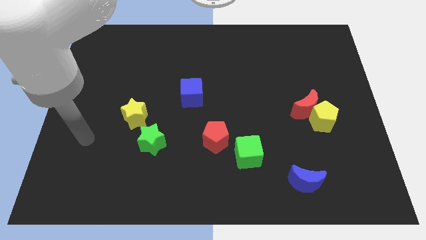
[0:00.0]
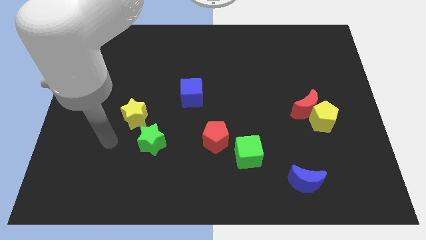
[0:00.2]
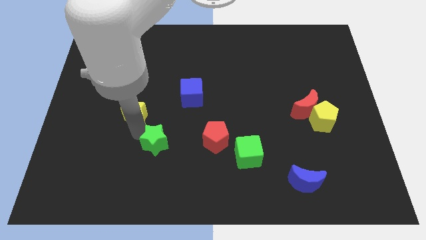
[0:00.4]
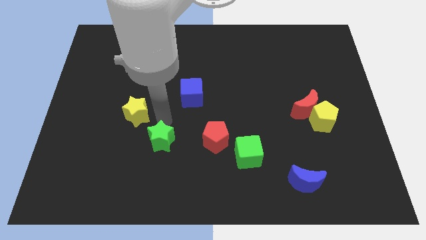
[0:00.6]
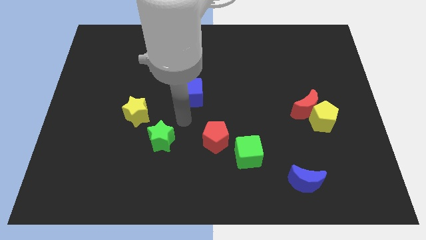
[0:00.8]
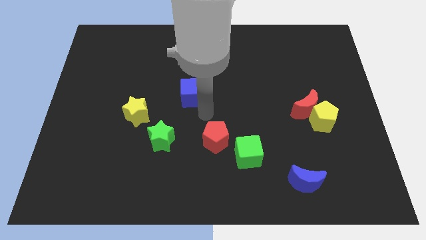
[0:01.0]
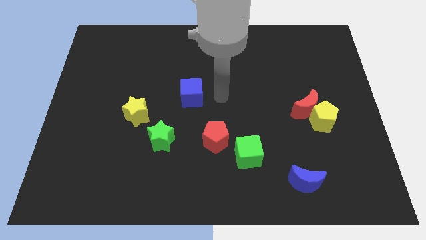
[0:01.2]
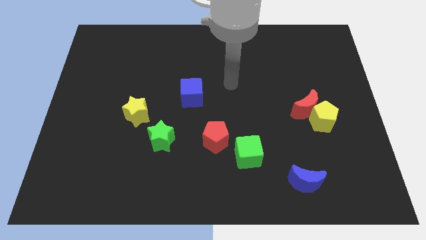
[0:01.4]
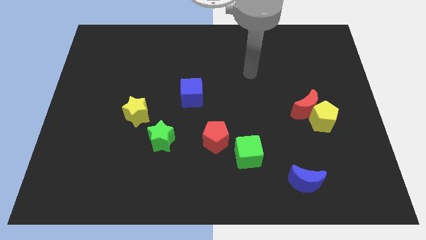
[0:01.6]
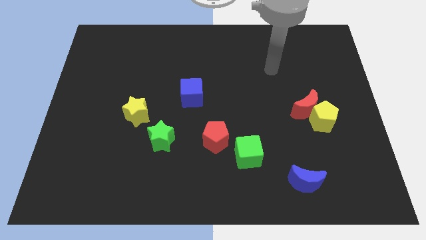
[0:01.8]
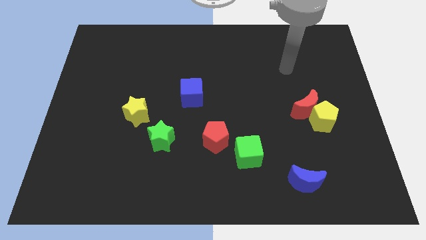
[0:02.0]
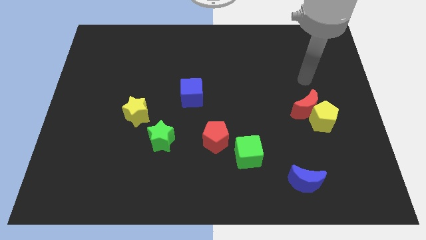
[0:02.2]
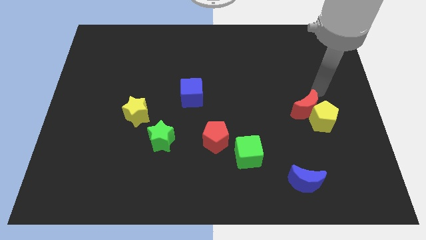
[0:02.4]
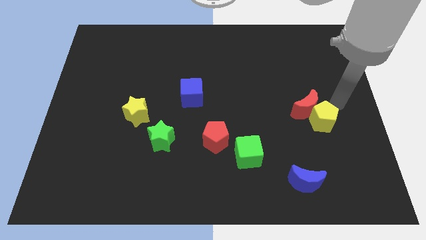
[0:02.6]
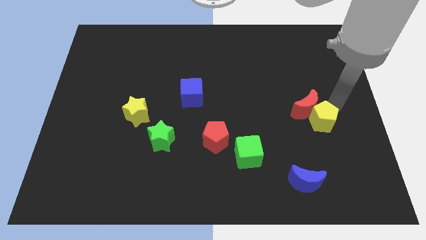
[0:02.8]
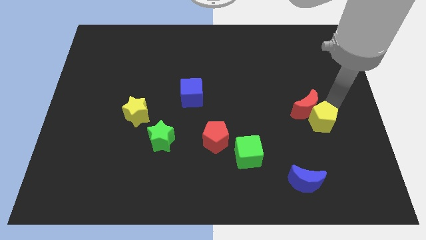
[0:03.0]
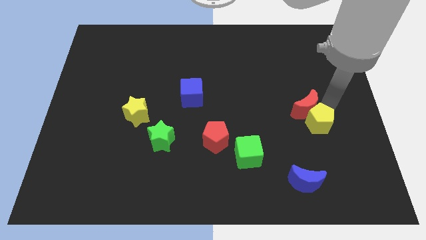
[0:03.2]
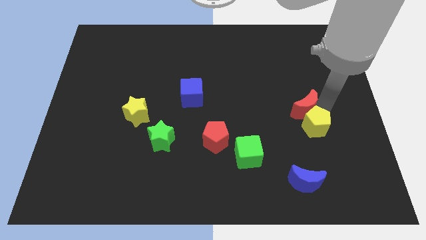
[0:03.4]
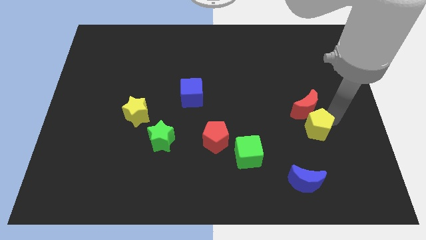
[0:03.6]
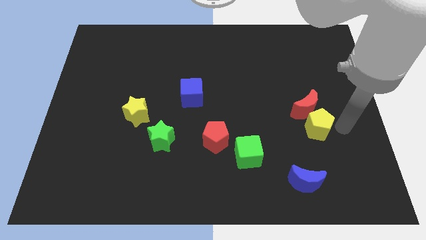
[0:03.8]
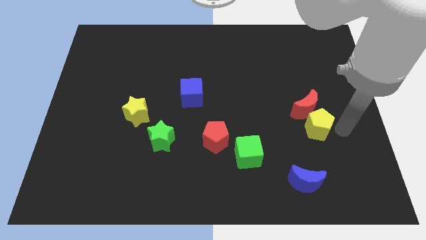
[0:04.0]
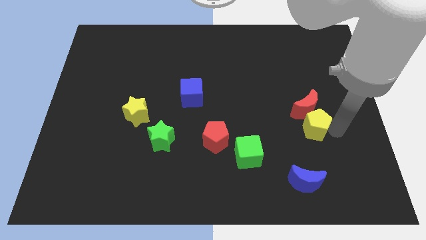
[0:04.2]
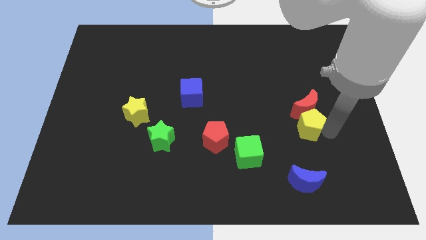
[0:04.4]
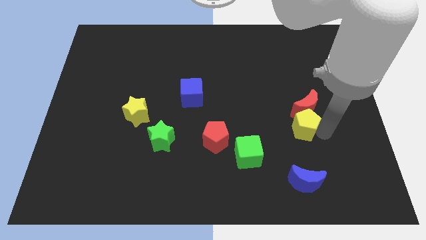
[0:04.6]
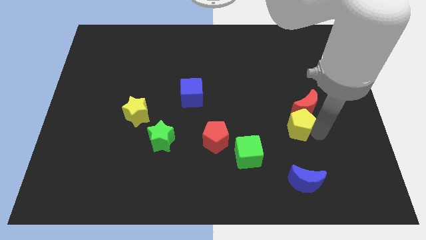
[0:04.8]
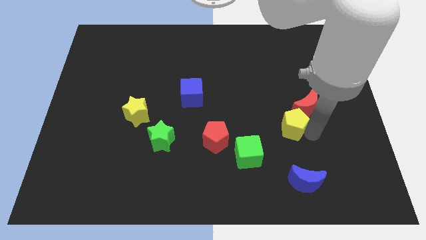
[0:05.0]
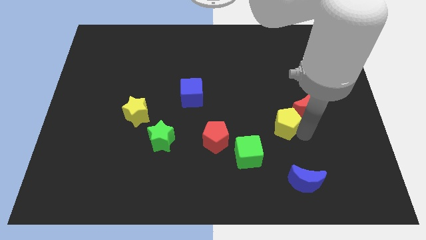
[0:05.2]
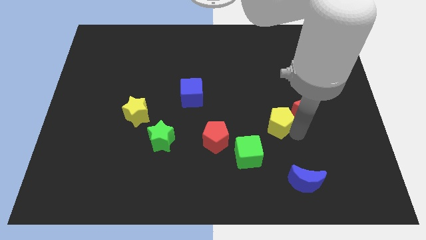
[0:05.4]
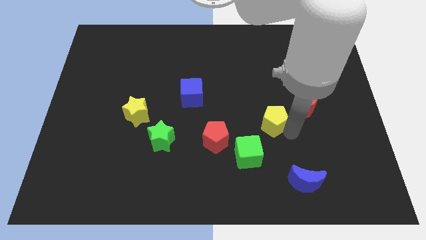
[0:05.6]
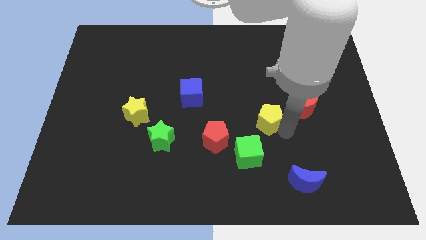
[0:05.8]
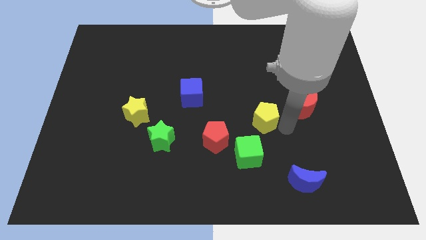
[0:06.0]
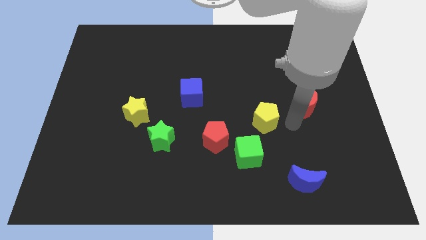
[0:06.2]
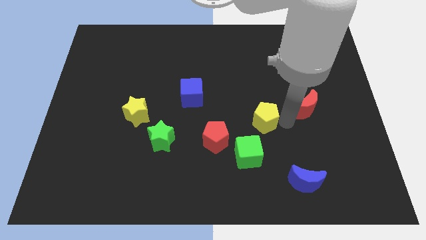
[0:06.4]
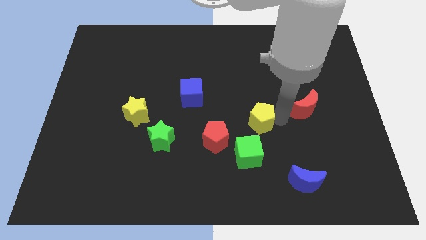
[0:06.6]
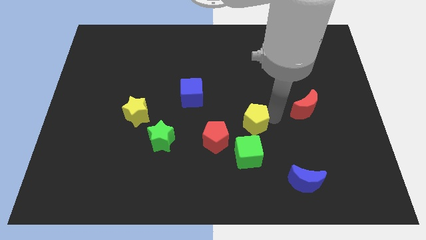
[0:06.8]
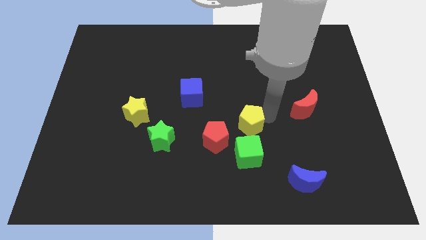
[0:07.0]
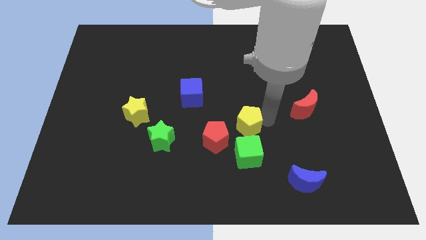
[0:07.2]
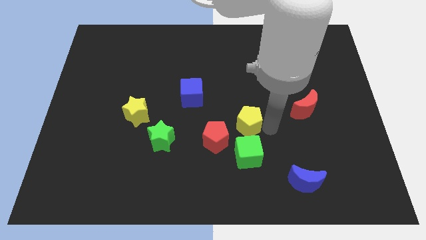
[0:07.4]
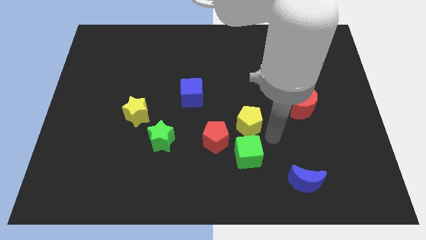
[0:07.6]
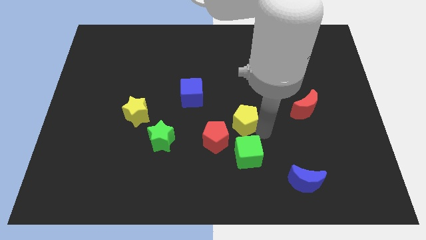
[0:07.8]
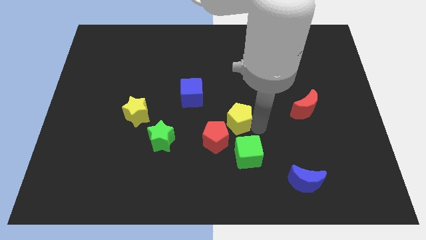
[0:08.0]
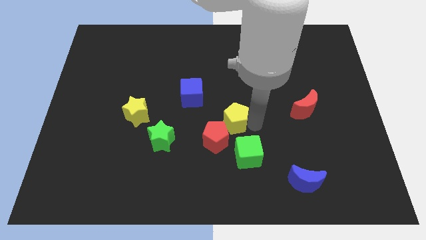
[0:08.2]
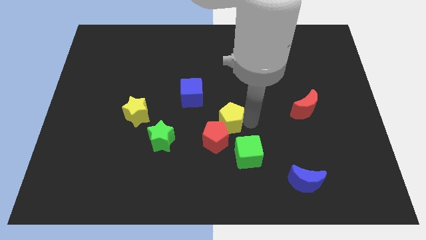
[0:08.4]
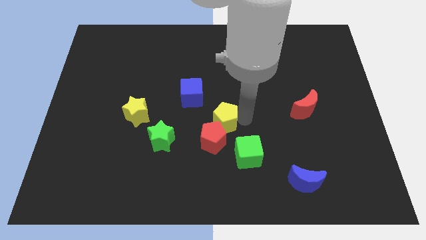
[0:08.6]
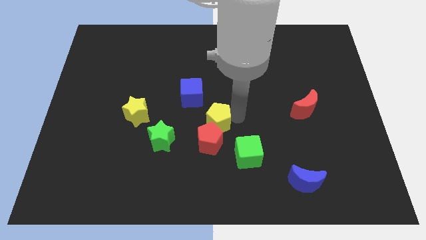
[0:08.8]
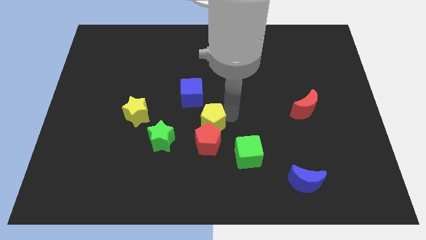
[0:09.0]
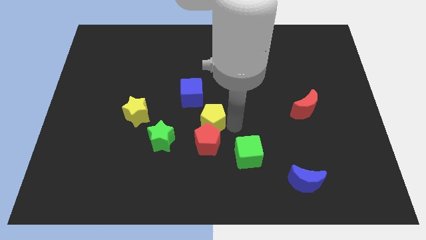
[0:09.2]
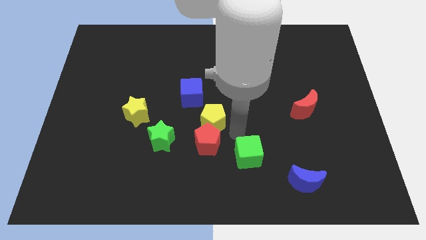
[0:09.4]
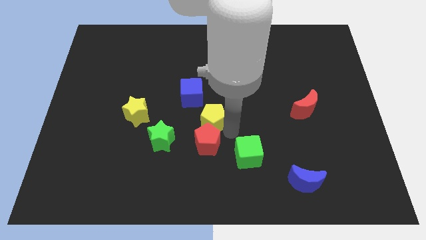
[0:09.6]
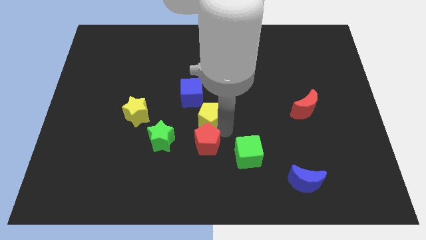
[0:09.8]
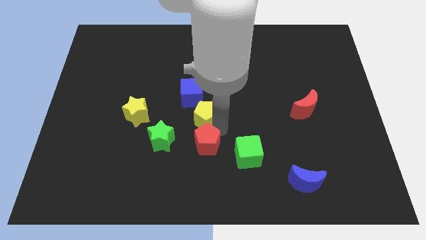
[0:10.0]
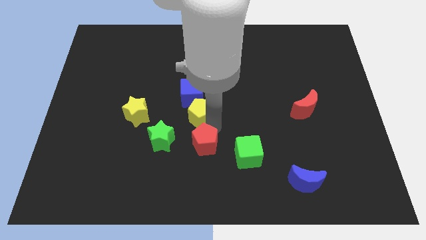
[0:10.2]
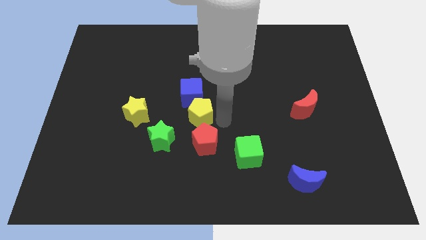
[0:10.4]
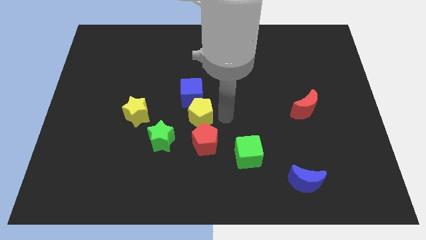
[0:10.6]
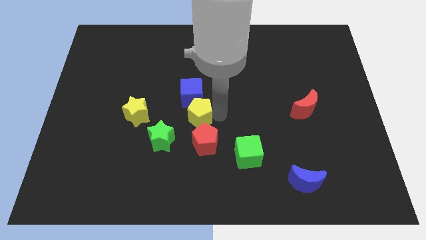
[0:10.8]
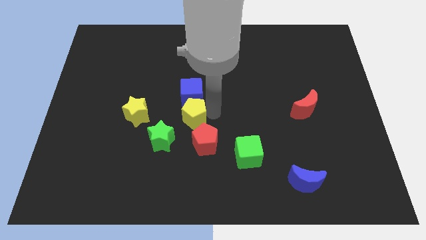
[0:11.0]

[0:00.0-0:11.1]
move the yellow pentagon to the bottom left of the blue cube

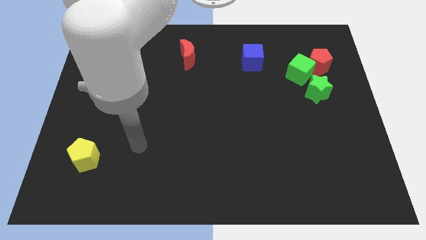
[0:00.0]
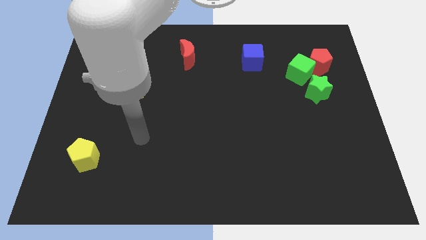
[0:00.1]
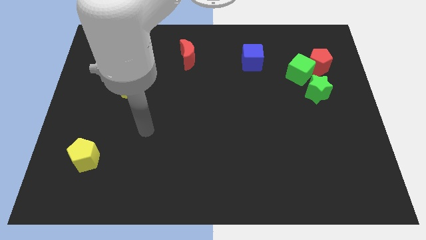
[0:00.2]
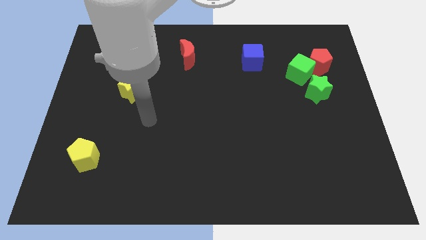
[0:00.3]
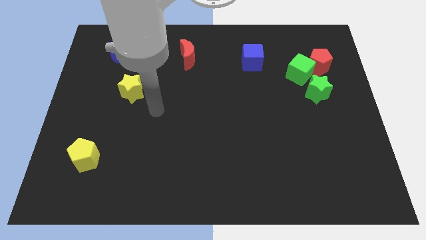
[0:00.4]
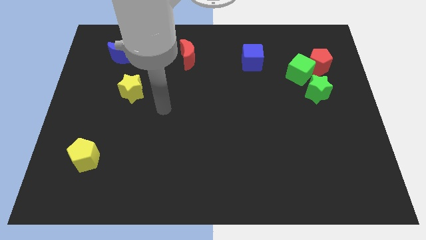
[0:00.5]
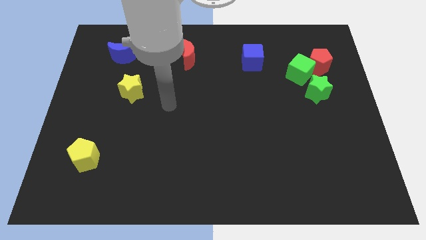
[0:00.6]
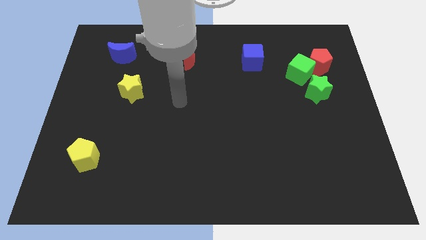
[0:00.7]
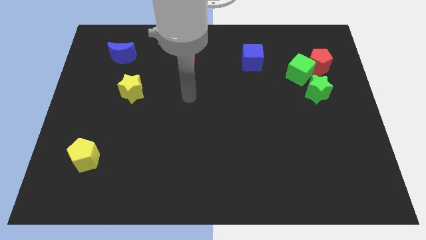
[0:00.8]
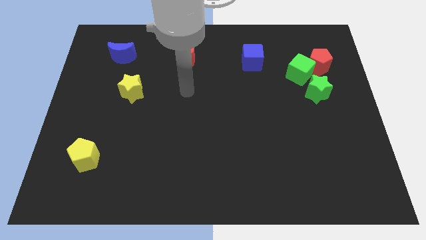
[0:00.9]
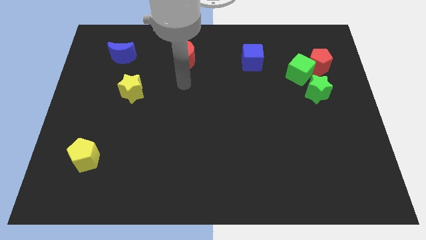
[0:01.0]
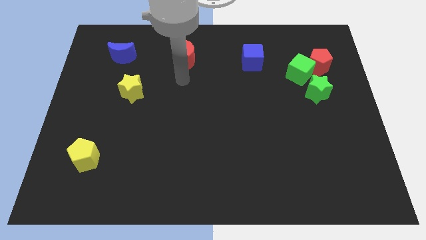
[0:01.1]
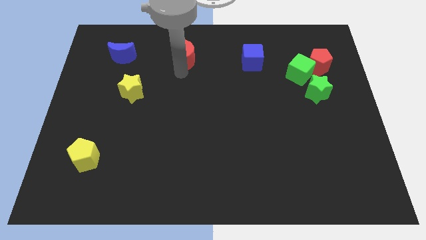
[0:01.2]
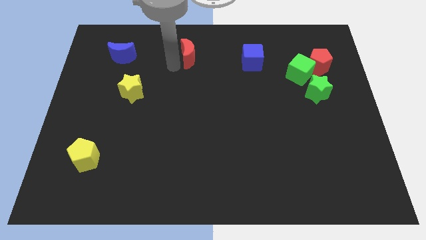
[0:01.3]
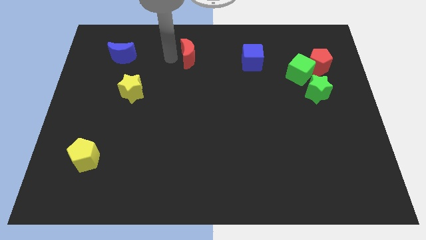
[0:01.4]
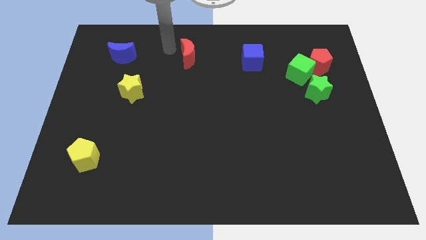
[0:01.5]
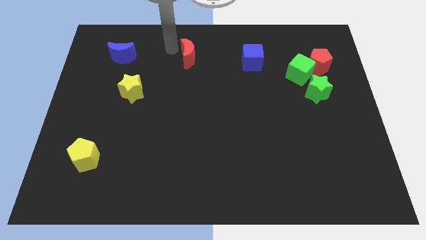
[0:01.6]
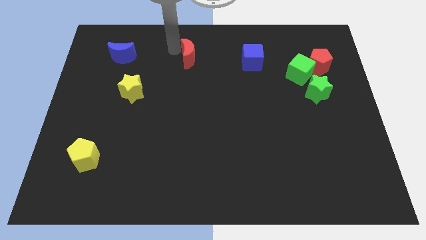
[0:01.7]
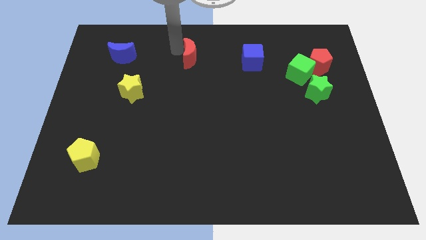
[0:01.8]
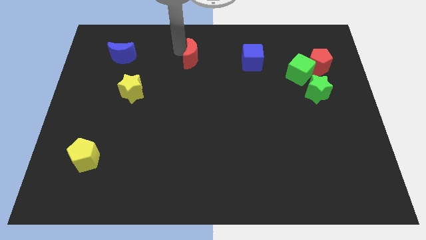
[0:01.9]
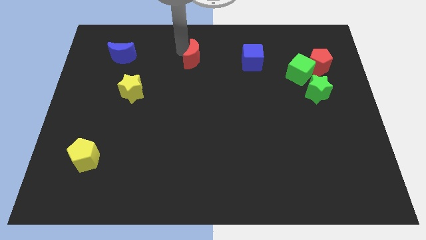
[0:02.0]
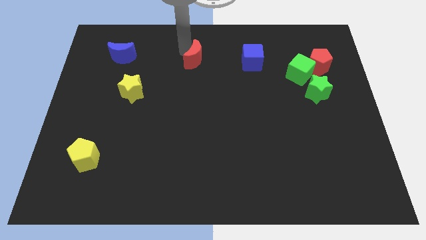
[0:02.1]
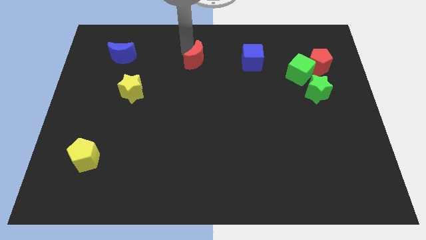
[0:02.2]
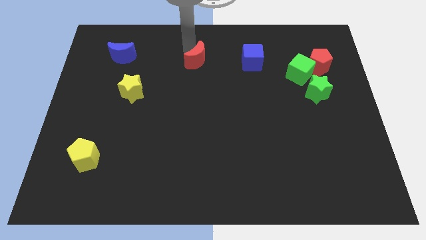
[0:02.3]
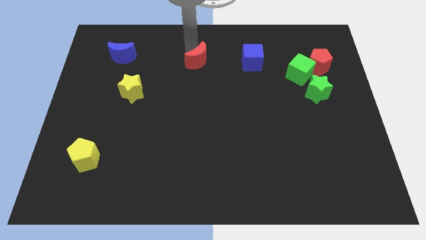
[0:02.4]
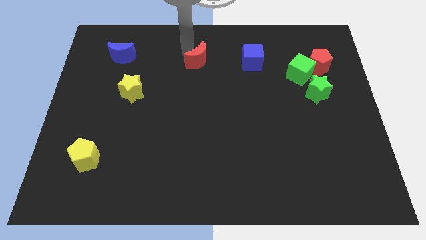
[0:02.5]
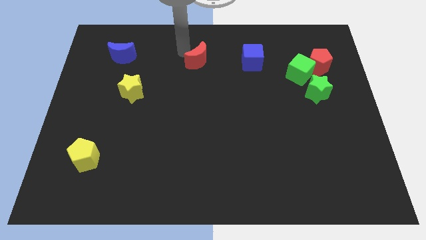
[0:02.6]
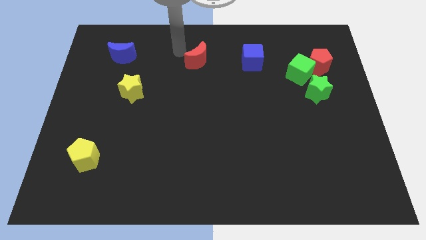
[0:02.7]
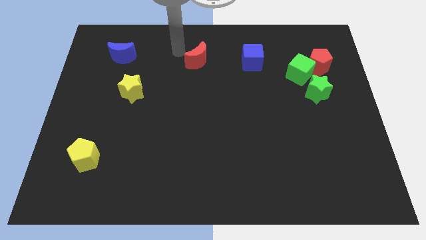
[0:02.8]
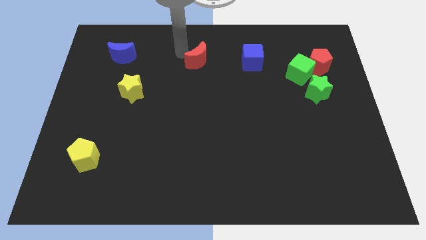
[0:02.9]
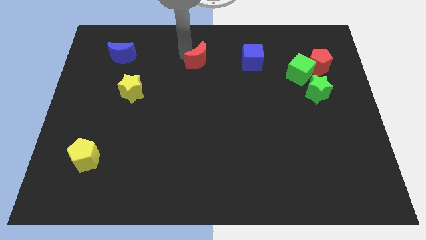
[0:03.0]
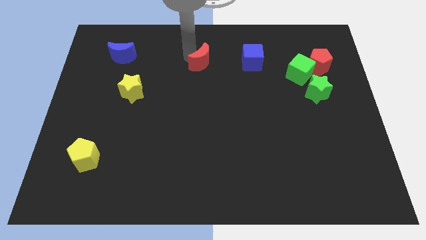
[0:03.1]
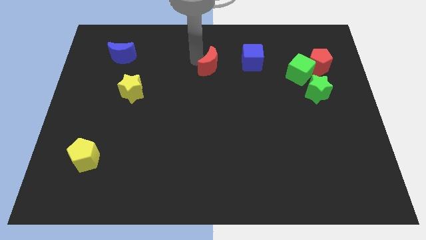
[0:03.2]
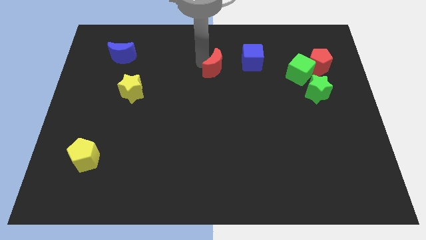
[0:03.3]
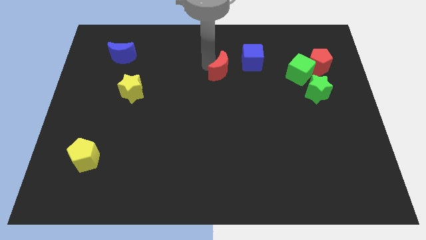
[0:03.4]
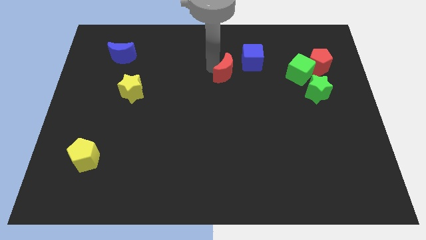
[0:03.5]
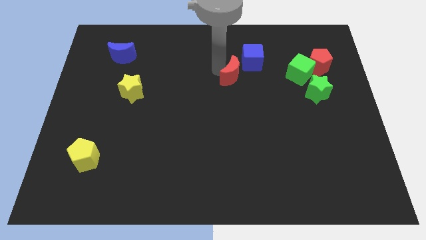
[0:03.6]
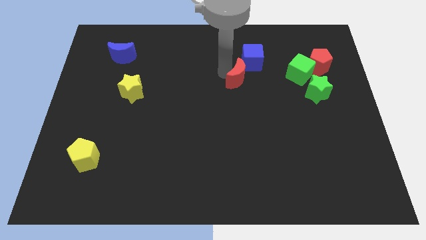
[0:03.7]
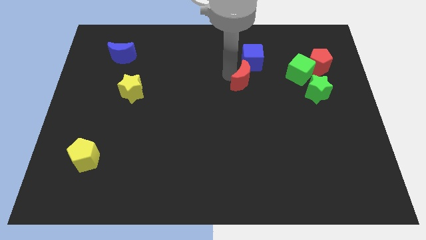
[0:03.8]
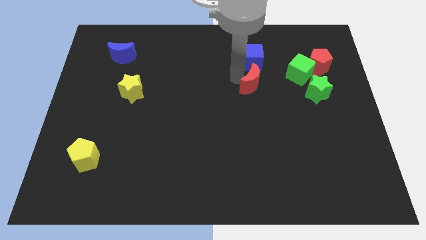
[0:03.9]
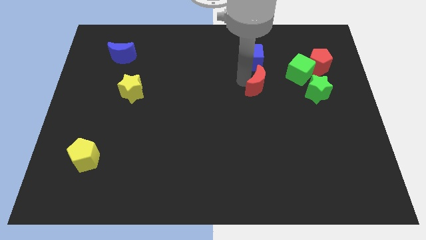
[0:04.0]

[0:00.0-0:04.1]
push the red moon just left of the green star
